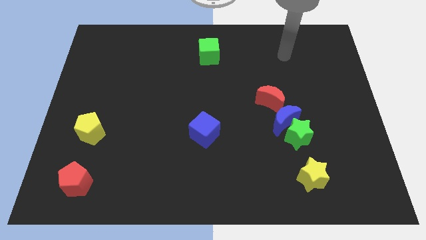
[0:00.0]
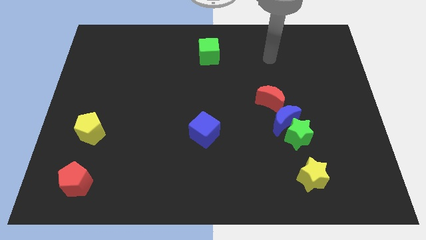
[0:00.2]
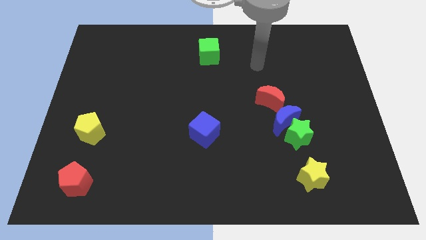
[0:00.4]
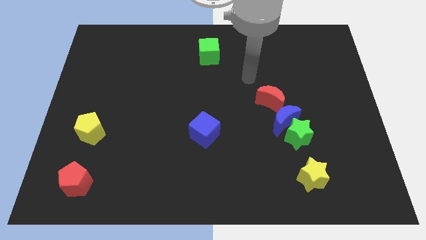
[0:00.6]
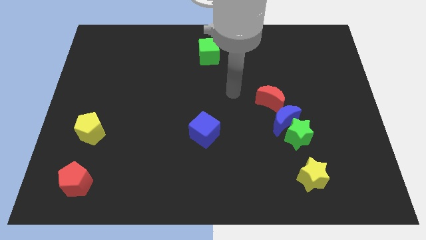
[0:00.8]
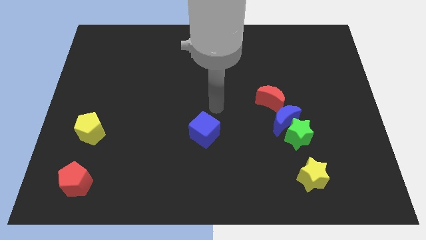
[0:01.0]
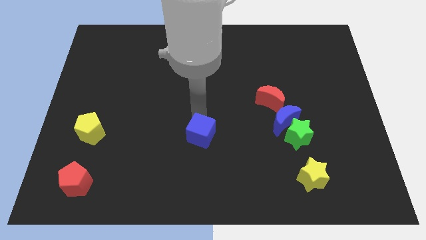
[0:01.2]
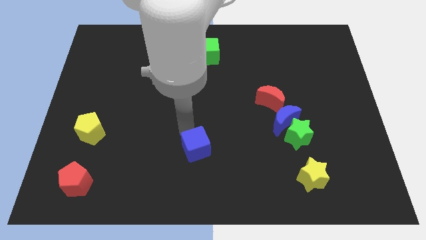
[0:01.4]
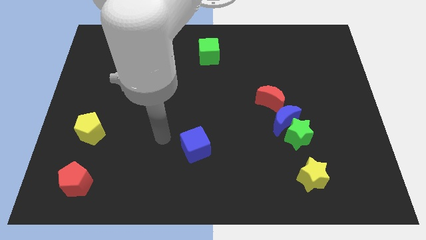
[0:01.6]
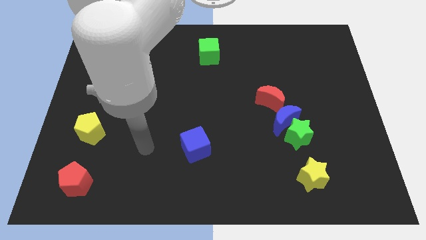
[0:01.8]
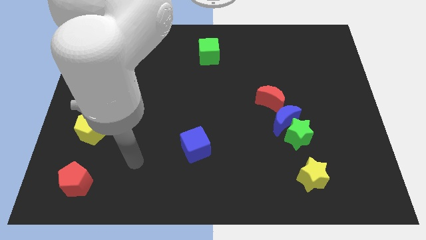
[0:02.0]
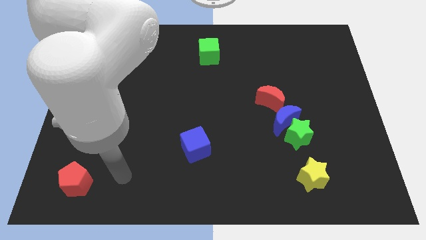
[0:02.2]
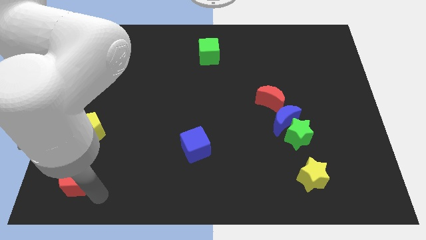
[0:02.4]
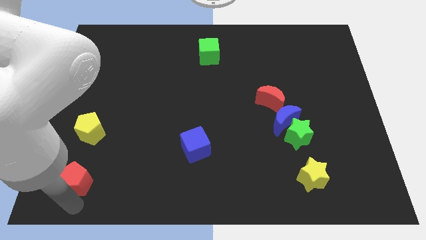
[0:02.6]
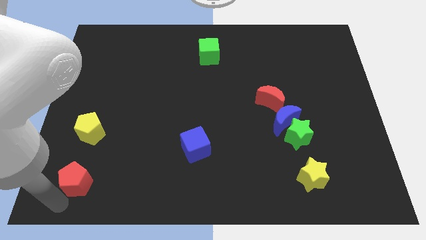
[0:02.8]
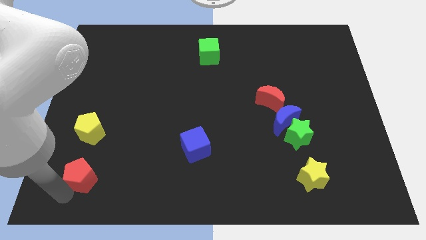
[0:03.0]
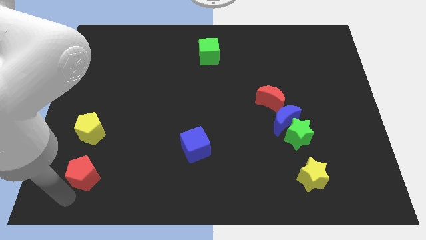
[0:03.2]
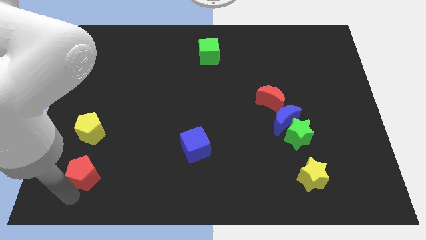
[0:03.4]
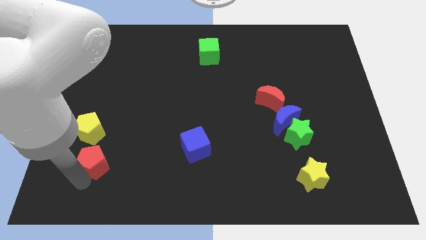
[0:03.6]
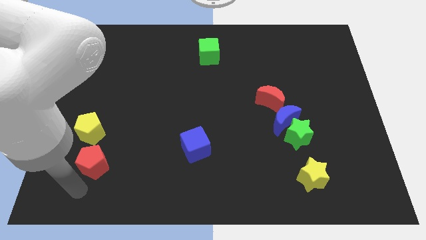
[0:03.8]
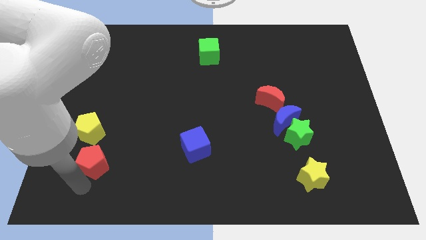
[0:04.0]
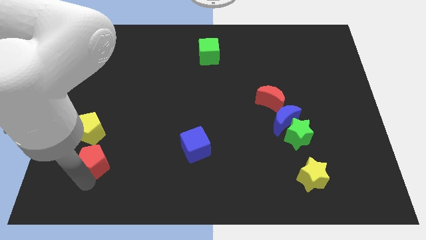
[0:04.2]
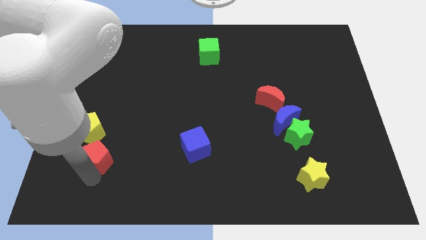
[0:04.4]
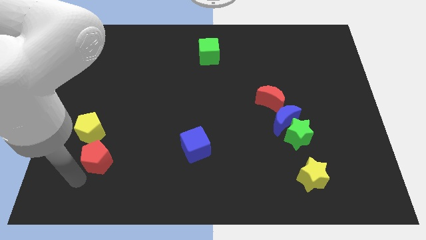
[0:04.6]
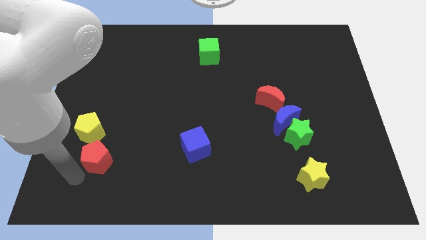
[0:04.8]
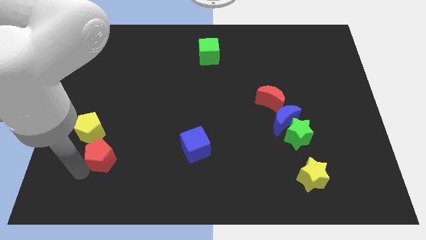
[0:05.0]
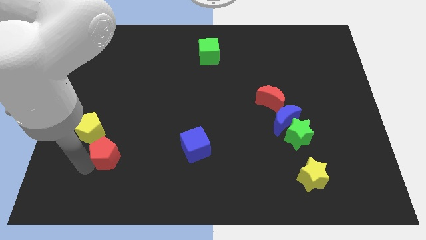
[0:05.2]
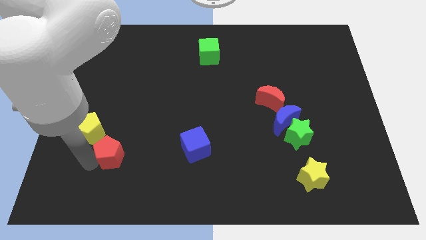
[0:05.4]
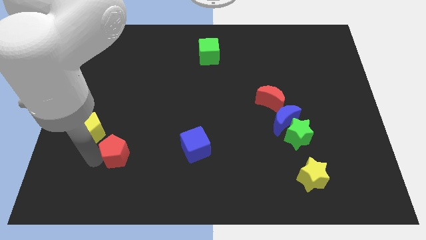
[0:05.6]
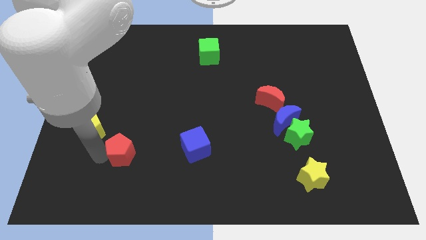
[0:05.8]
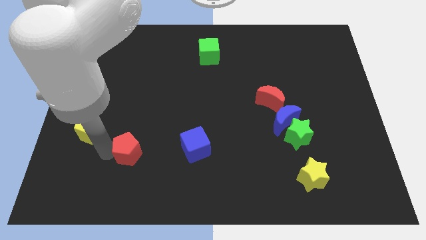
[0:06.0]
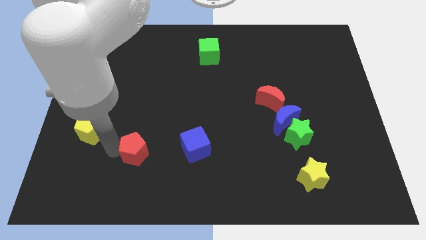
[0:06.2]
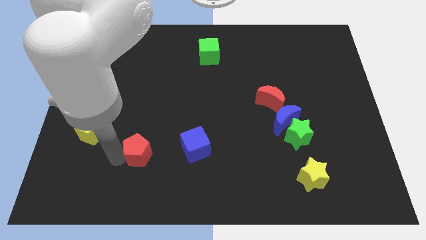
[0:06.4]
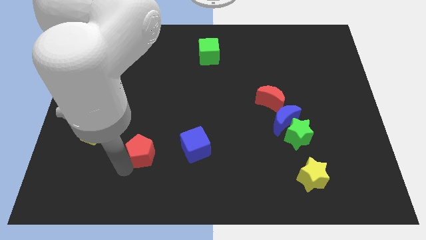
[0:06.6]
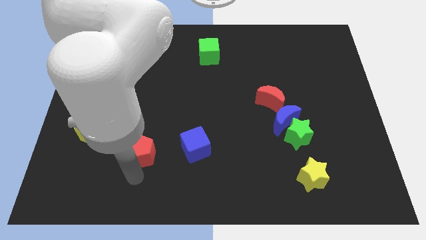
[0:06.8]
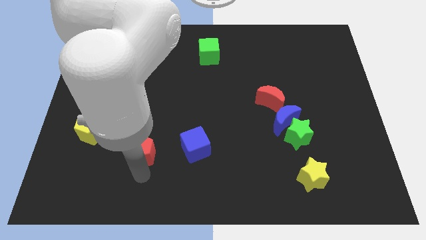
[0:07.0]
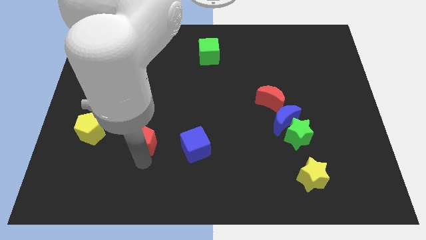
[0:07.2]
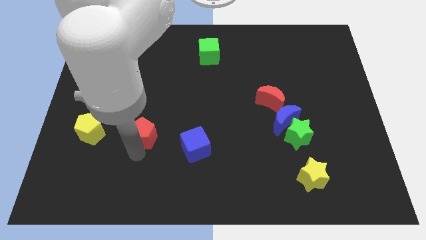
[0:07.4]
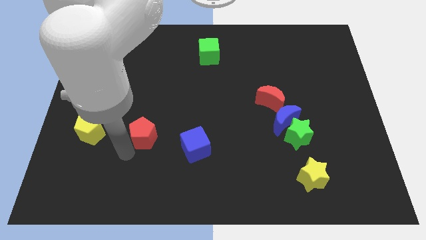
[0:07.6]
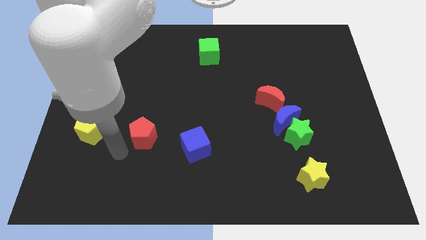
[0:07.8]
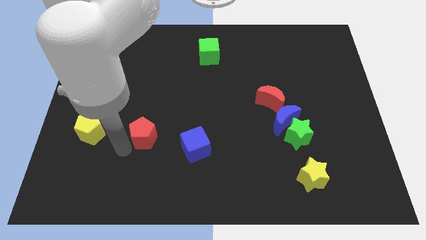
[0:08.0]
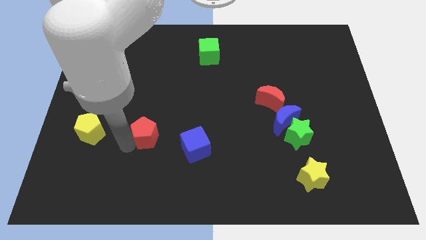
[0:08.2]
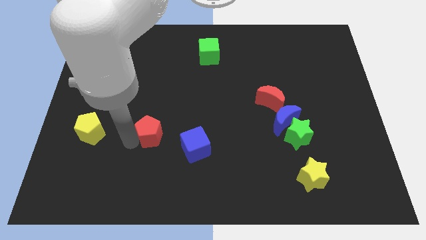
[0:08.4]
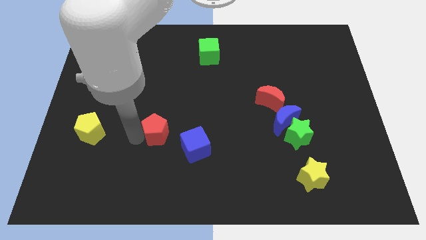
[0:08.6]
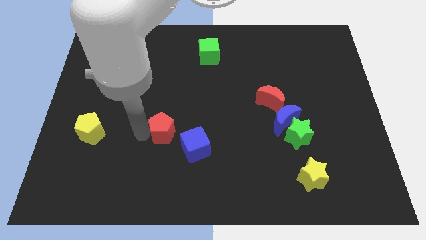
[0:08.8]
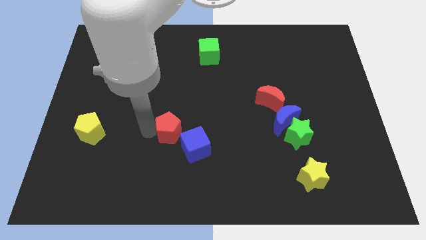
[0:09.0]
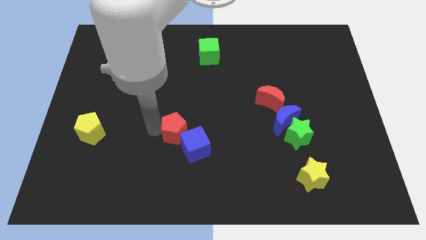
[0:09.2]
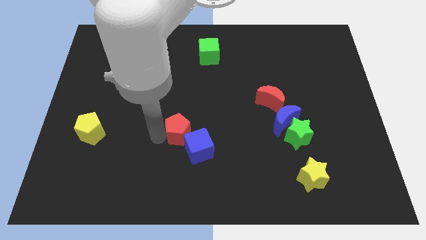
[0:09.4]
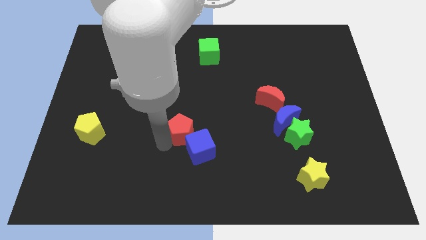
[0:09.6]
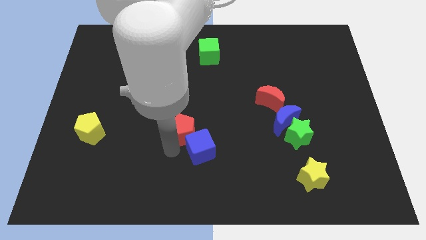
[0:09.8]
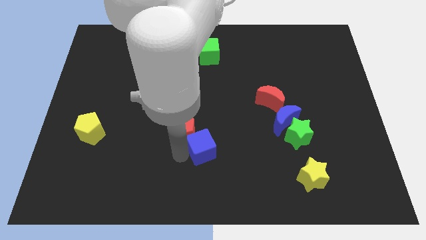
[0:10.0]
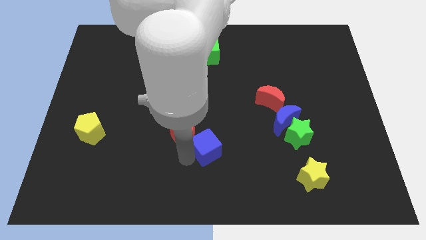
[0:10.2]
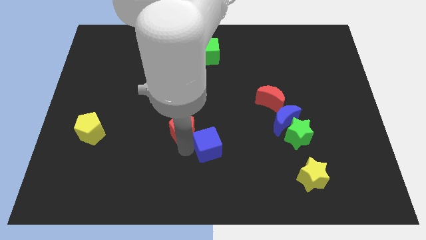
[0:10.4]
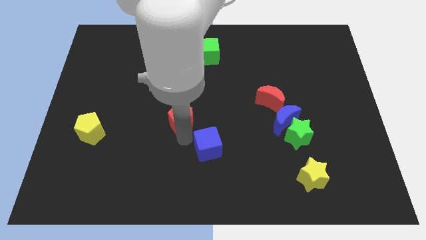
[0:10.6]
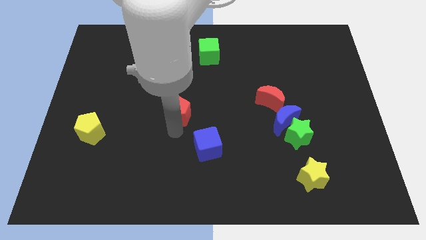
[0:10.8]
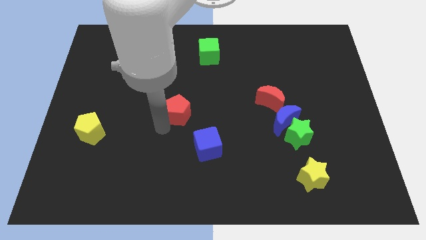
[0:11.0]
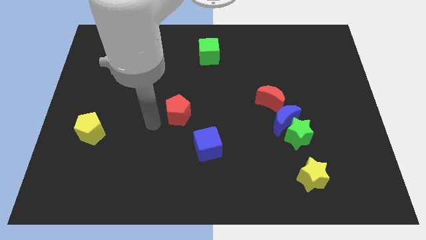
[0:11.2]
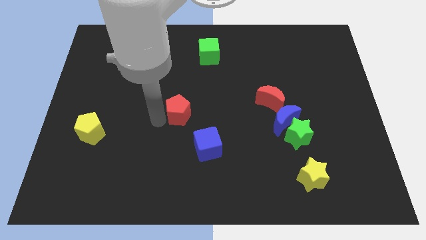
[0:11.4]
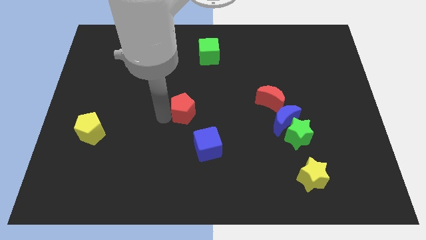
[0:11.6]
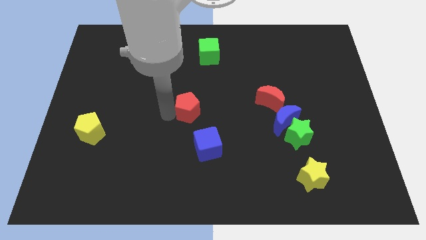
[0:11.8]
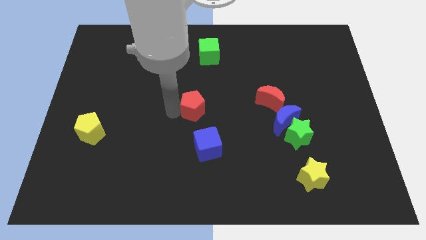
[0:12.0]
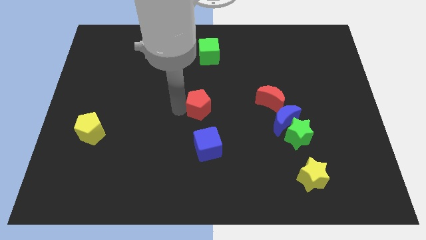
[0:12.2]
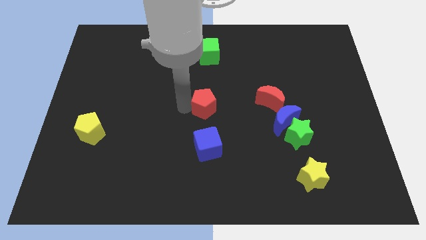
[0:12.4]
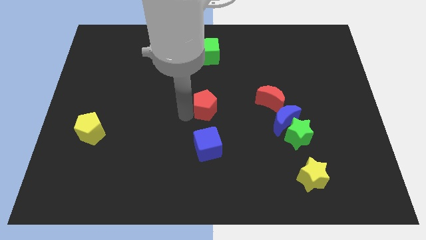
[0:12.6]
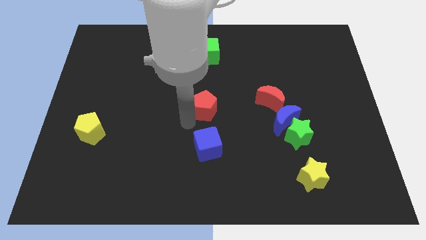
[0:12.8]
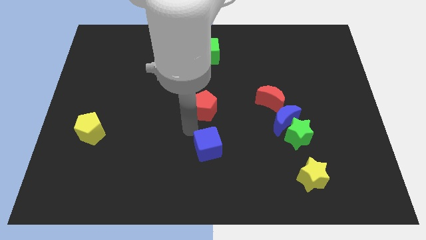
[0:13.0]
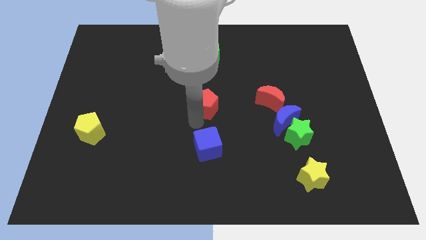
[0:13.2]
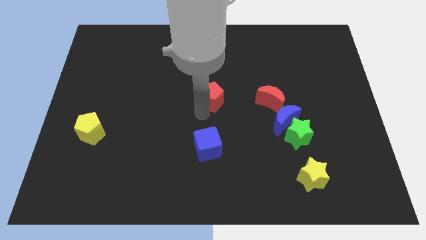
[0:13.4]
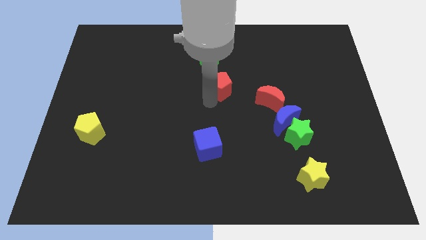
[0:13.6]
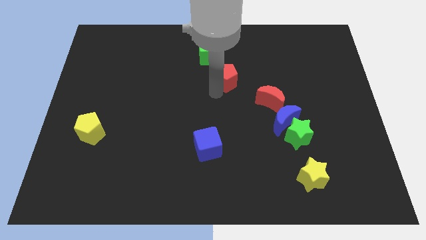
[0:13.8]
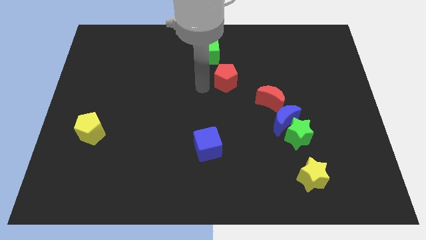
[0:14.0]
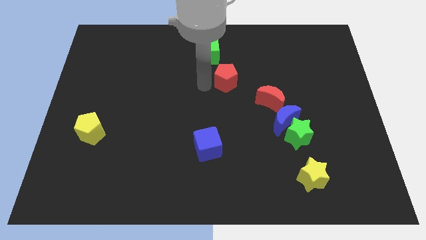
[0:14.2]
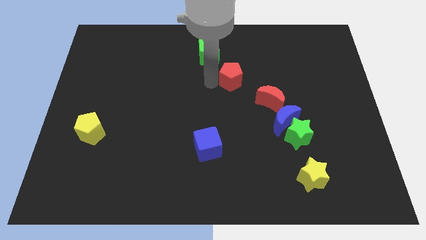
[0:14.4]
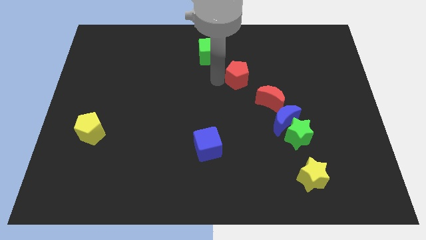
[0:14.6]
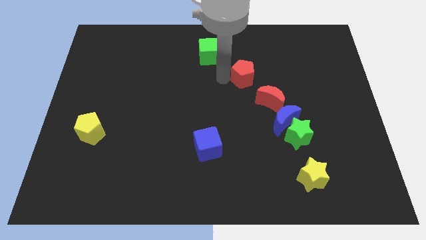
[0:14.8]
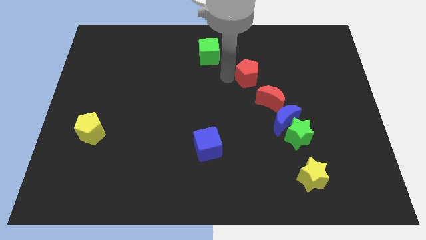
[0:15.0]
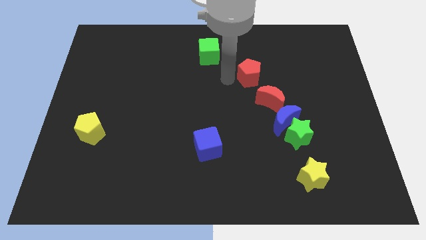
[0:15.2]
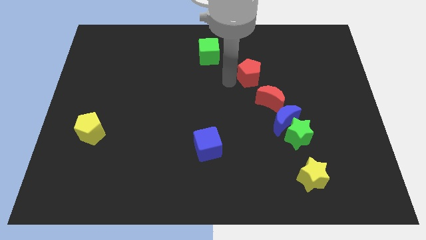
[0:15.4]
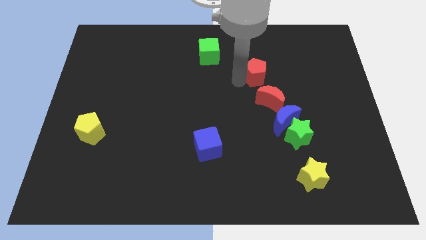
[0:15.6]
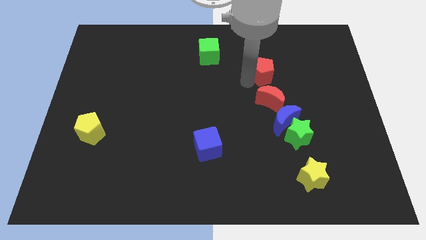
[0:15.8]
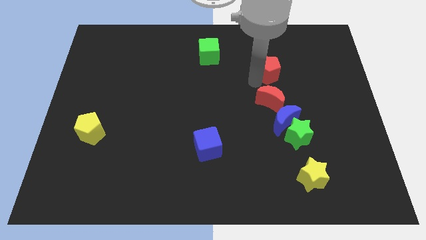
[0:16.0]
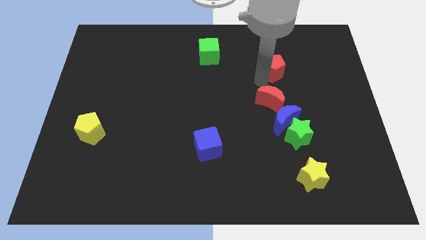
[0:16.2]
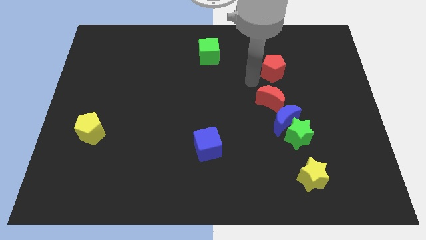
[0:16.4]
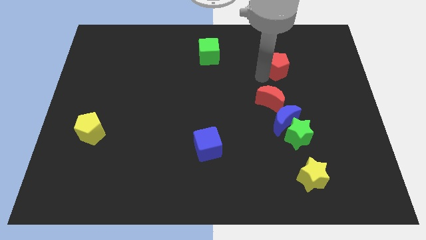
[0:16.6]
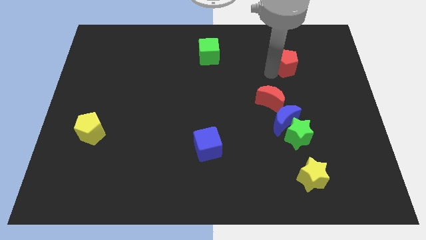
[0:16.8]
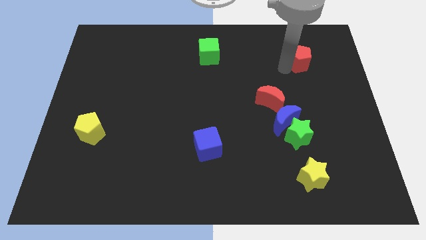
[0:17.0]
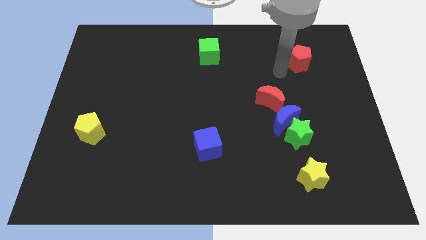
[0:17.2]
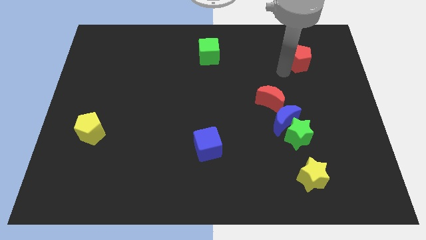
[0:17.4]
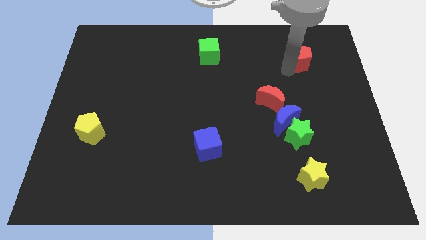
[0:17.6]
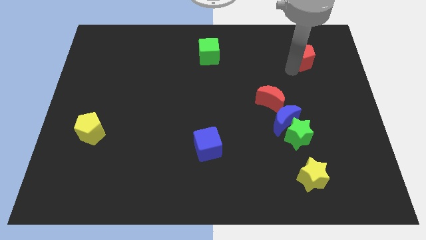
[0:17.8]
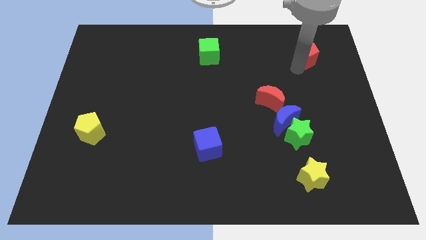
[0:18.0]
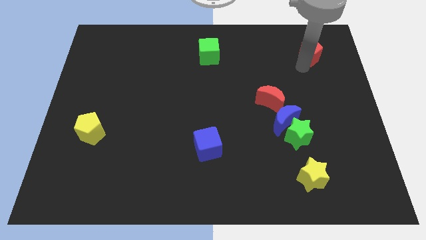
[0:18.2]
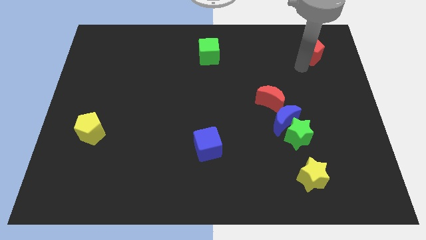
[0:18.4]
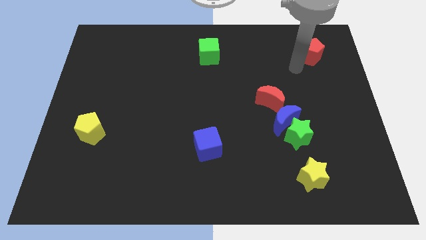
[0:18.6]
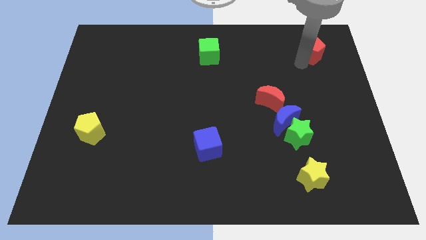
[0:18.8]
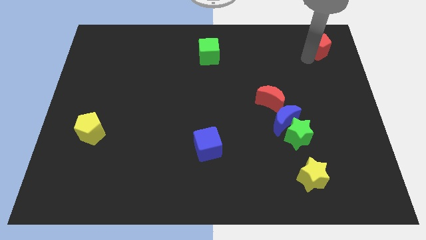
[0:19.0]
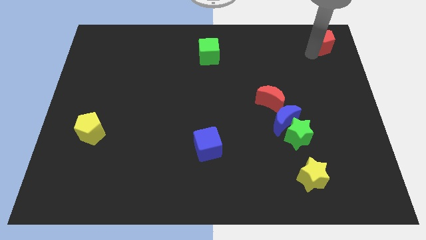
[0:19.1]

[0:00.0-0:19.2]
push the red pentagon to the top right
